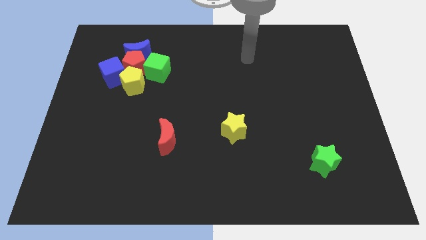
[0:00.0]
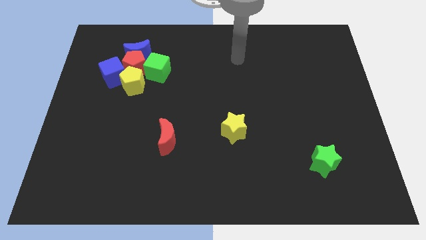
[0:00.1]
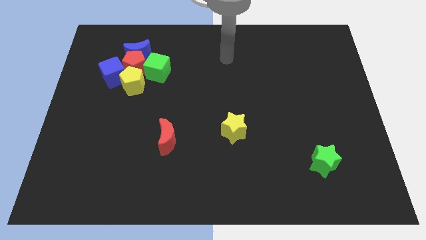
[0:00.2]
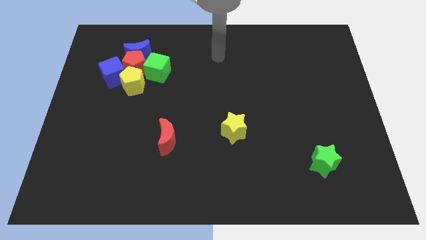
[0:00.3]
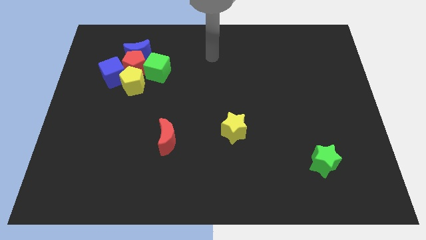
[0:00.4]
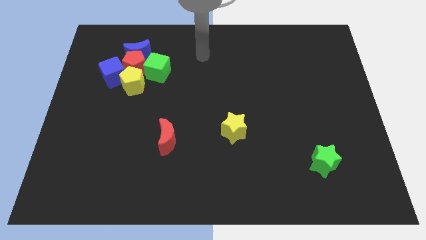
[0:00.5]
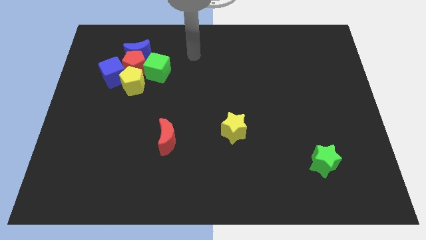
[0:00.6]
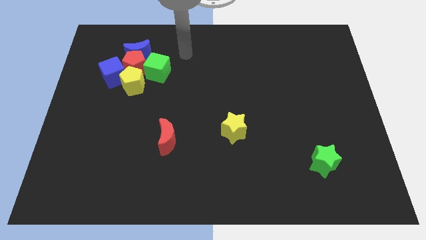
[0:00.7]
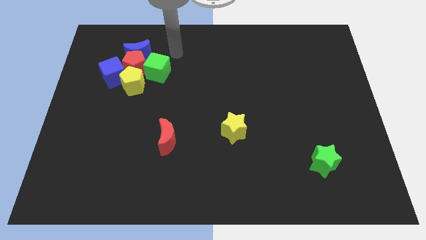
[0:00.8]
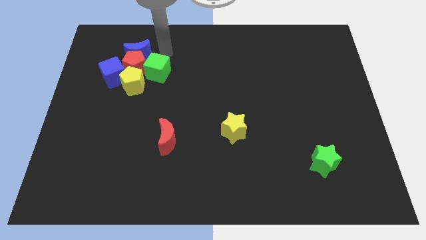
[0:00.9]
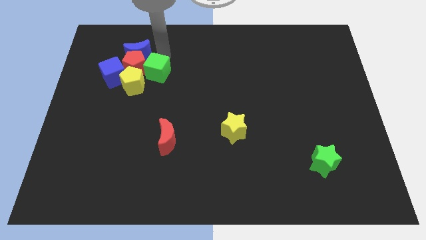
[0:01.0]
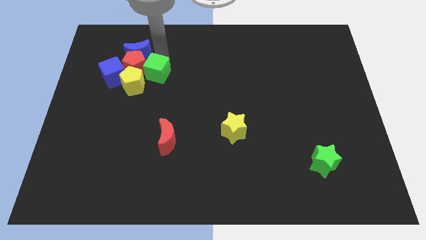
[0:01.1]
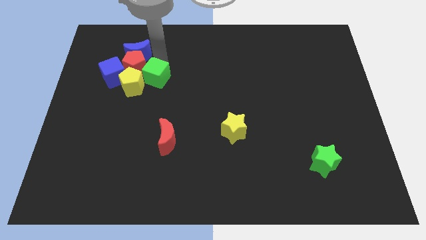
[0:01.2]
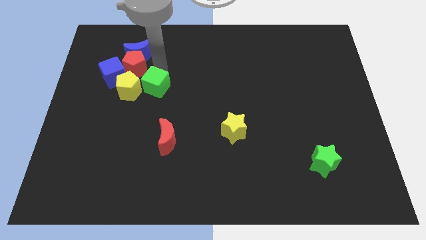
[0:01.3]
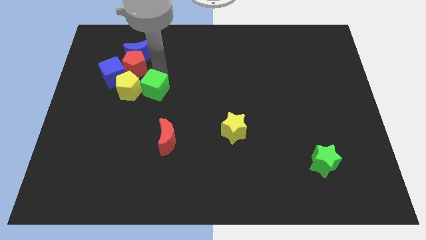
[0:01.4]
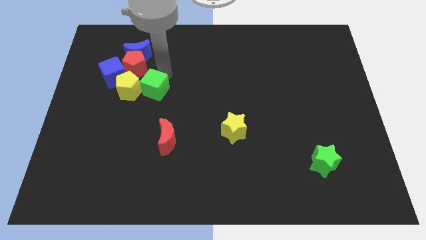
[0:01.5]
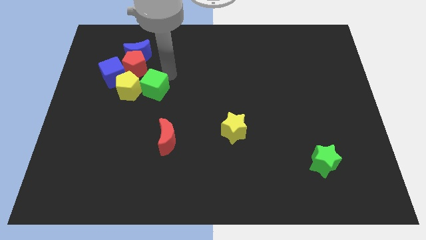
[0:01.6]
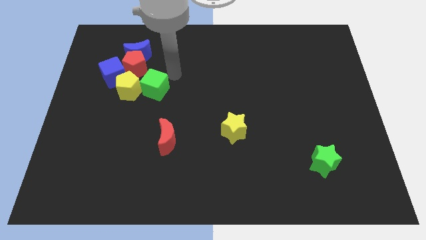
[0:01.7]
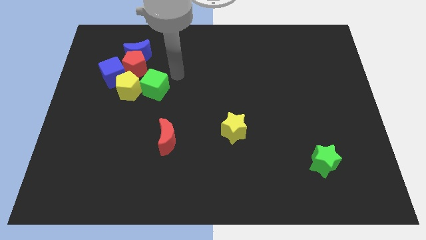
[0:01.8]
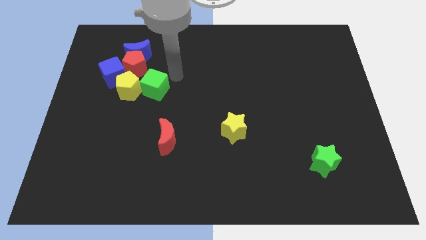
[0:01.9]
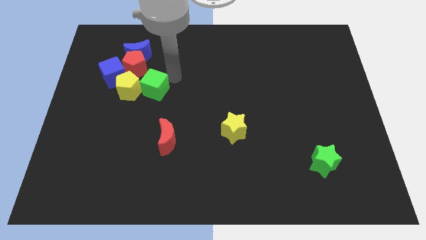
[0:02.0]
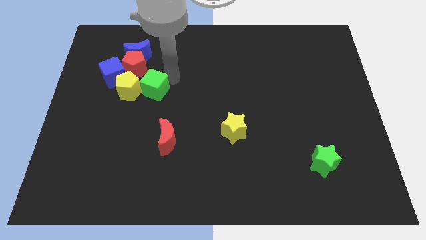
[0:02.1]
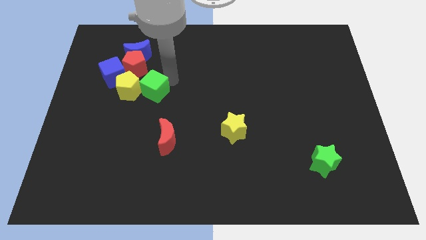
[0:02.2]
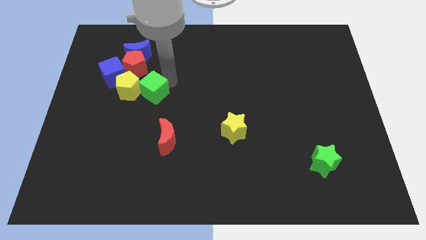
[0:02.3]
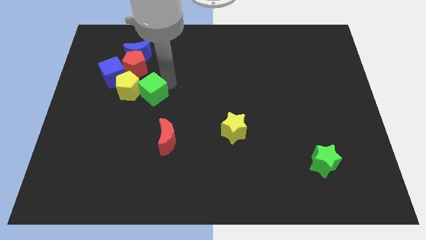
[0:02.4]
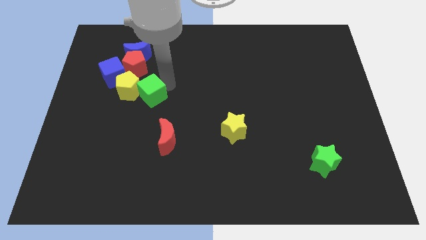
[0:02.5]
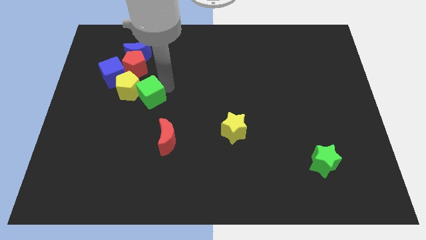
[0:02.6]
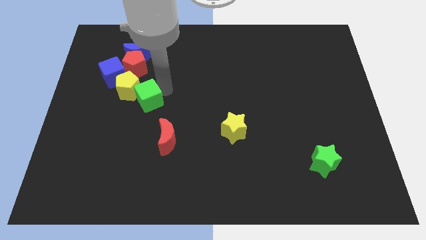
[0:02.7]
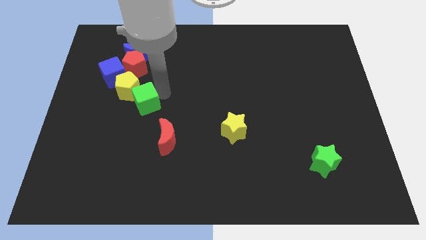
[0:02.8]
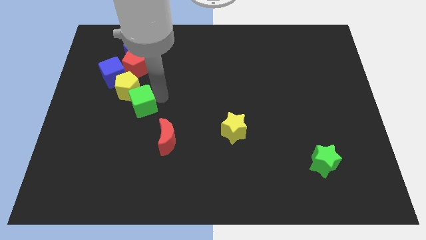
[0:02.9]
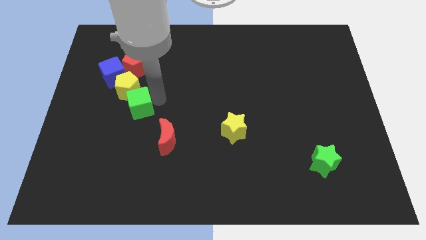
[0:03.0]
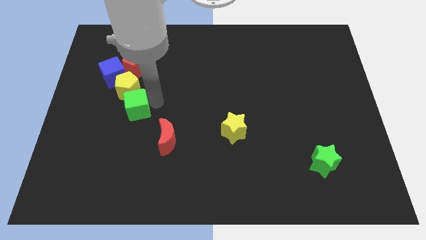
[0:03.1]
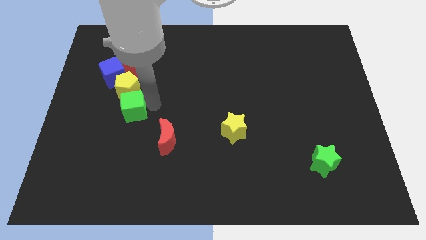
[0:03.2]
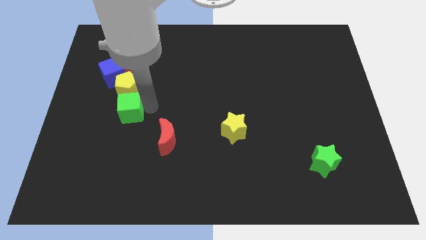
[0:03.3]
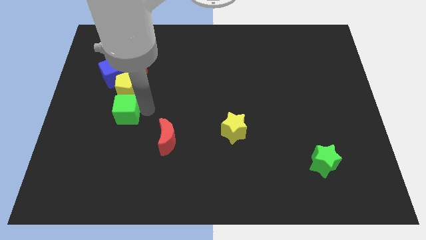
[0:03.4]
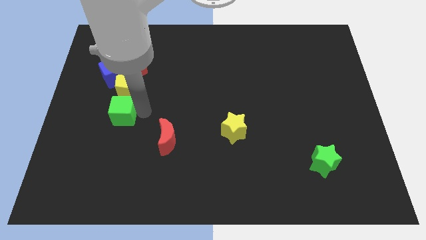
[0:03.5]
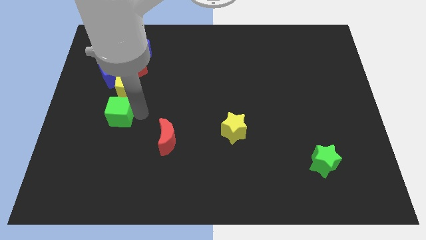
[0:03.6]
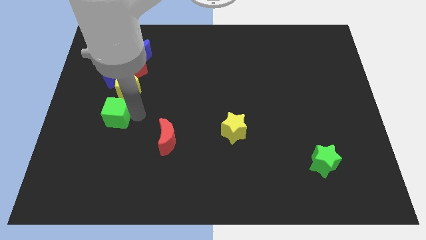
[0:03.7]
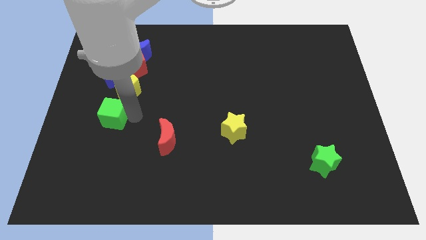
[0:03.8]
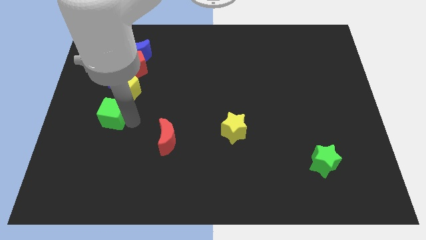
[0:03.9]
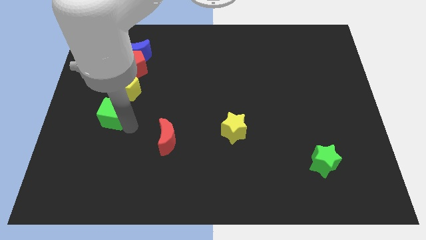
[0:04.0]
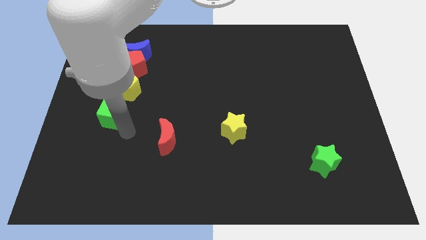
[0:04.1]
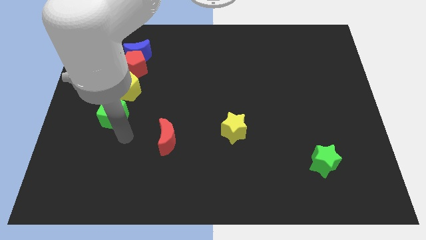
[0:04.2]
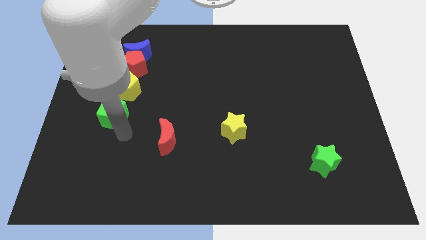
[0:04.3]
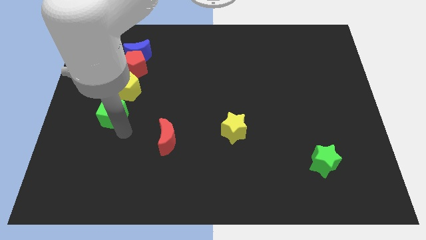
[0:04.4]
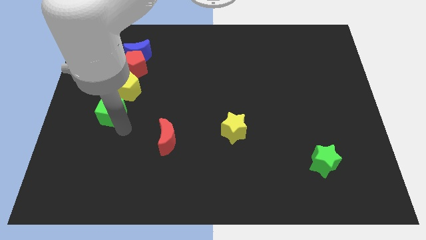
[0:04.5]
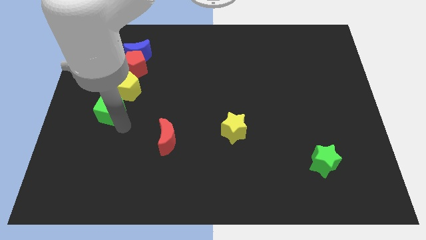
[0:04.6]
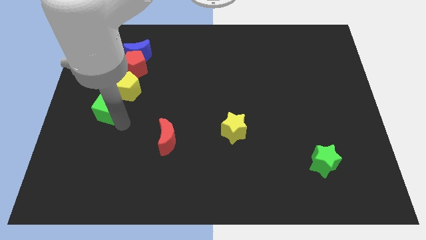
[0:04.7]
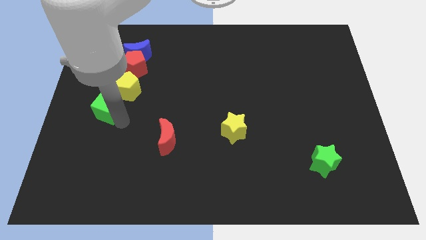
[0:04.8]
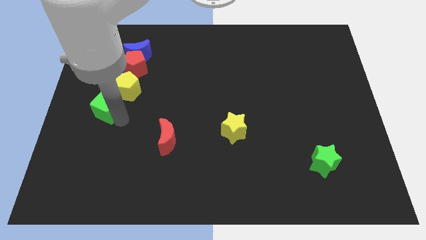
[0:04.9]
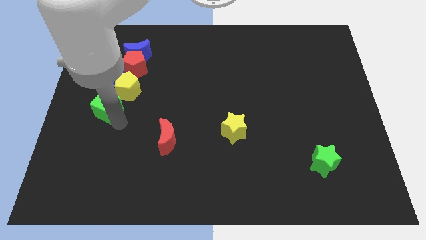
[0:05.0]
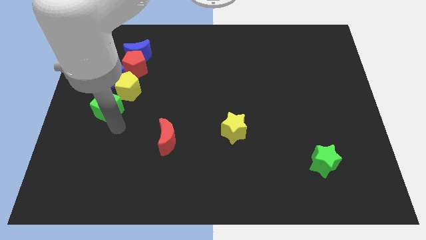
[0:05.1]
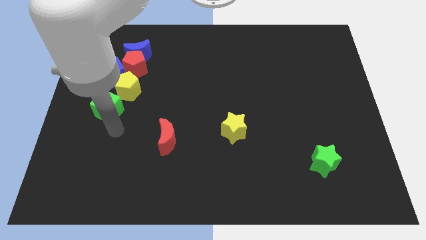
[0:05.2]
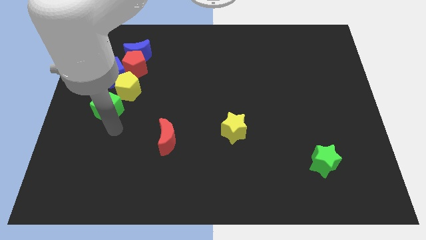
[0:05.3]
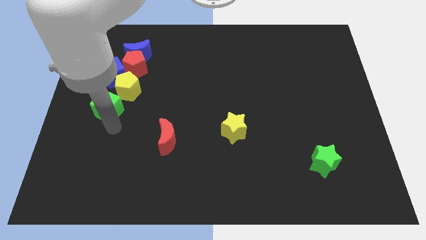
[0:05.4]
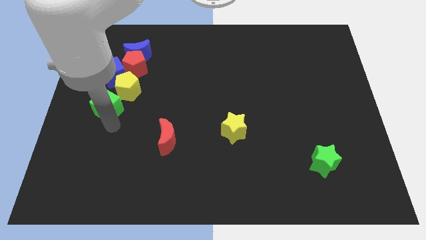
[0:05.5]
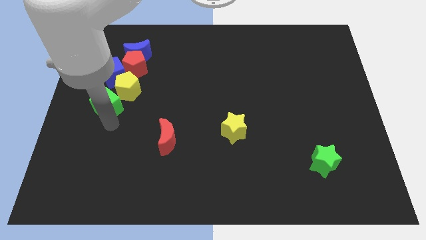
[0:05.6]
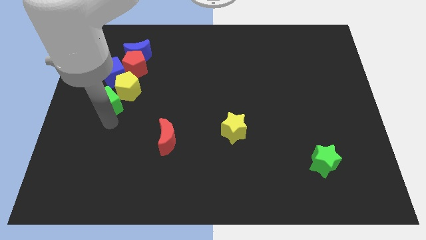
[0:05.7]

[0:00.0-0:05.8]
move the green cube to the left side

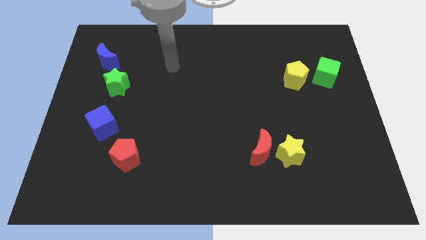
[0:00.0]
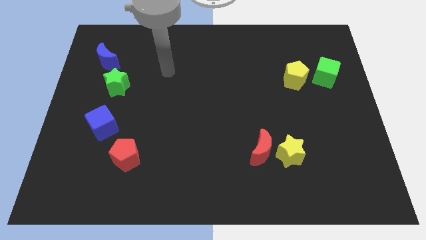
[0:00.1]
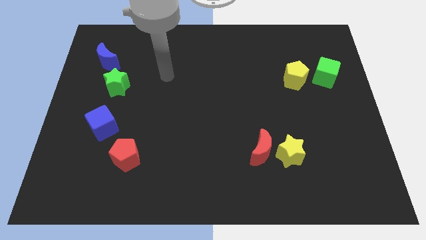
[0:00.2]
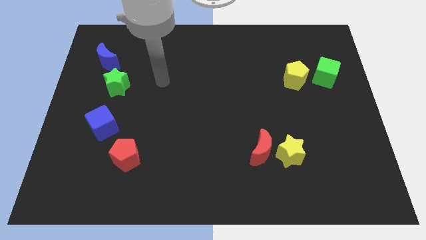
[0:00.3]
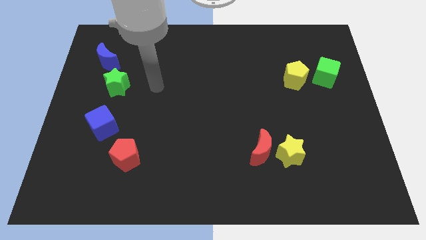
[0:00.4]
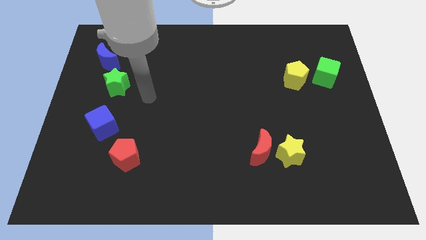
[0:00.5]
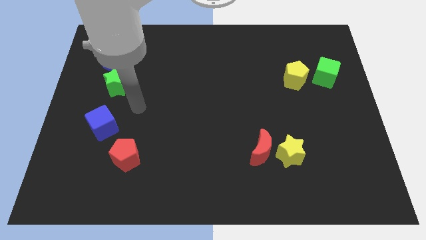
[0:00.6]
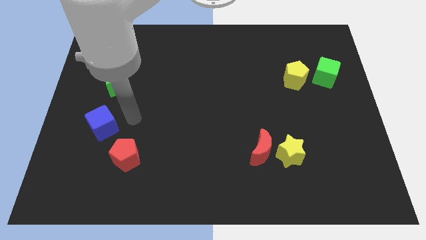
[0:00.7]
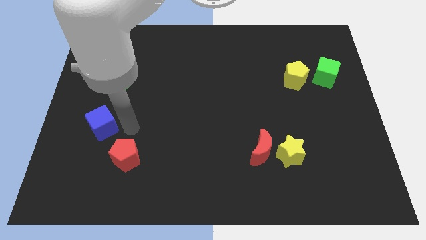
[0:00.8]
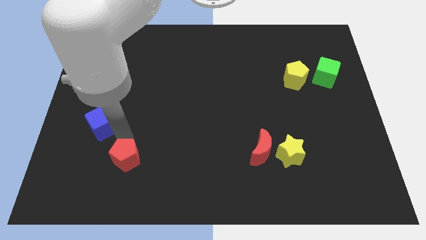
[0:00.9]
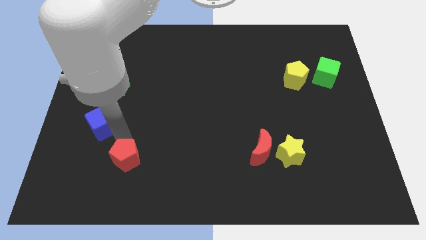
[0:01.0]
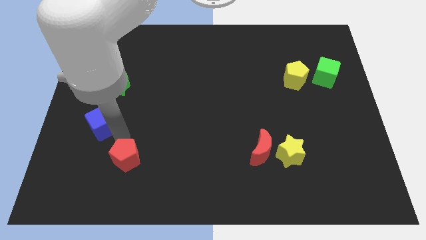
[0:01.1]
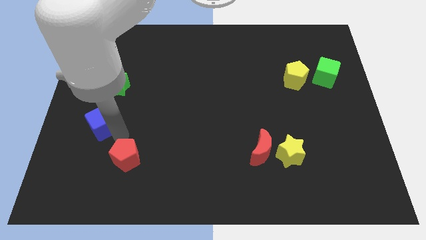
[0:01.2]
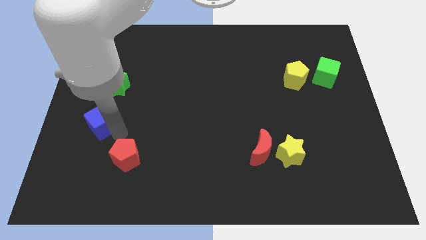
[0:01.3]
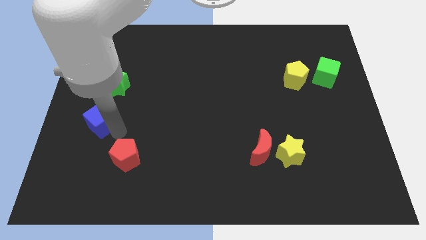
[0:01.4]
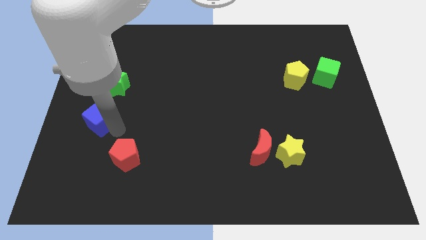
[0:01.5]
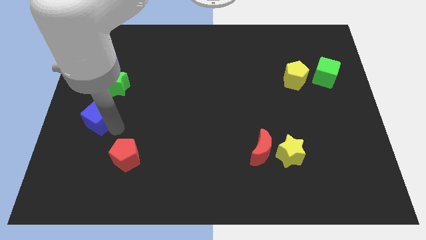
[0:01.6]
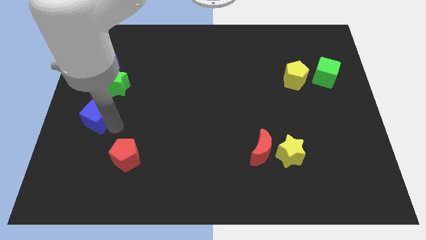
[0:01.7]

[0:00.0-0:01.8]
move the blue cube to the center left
